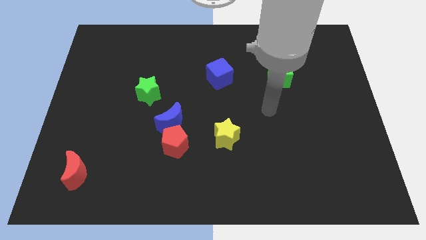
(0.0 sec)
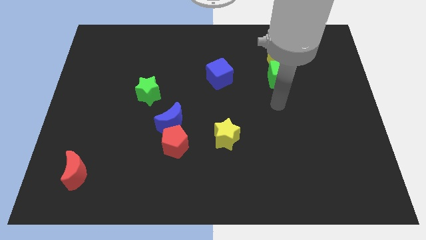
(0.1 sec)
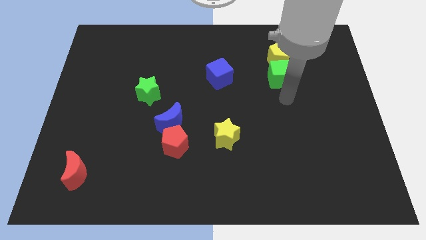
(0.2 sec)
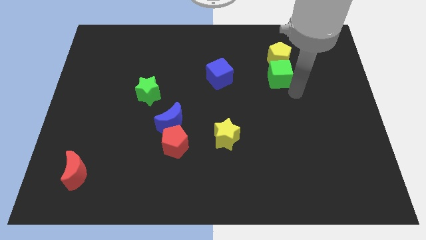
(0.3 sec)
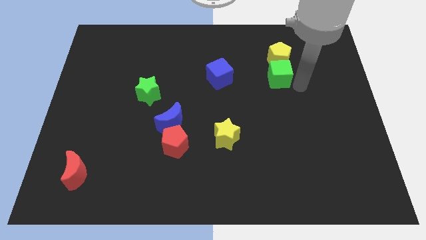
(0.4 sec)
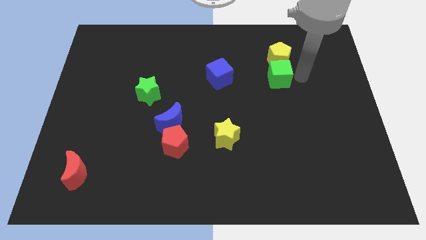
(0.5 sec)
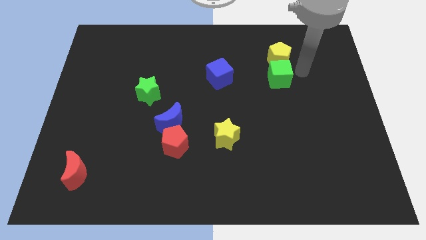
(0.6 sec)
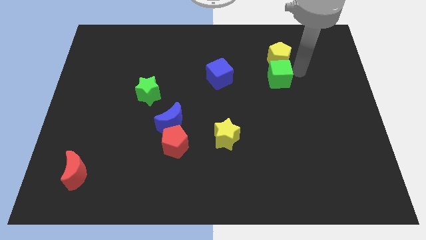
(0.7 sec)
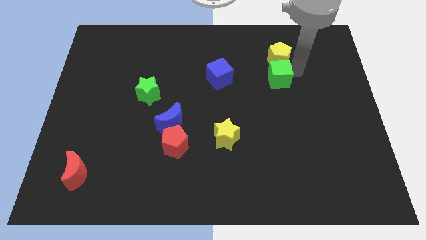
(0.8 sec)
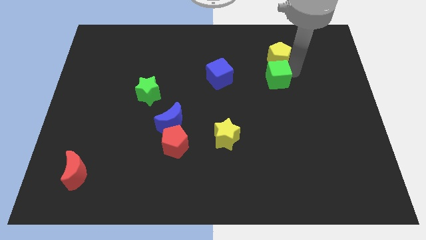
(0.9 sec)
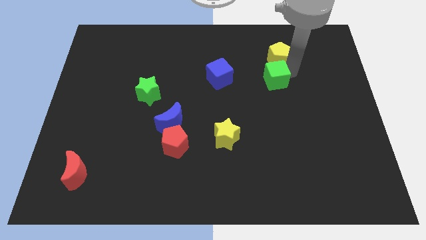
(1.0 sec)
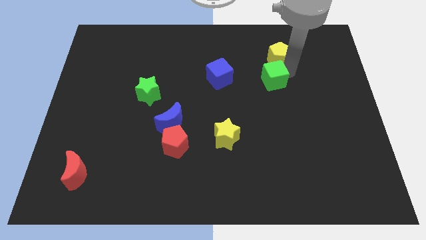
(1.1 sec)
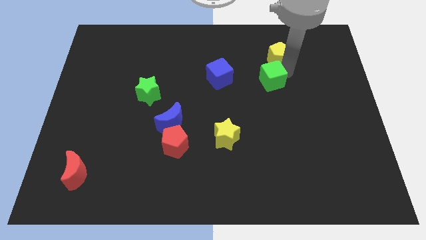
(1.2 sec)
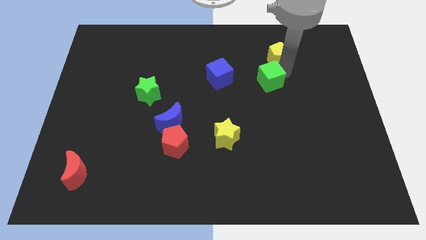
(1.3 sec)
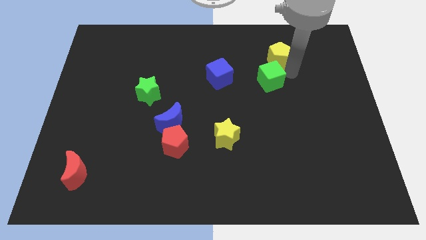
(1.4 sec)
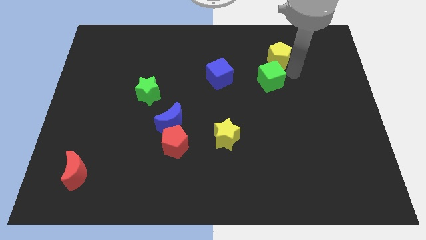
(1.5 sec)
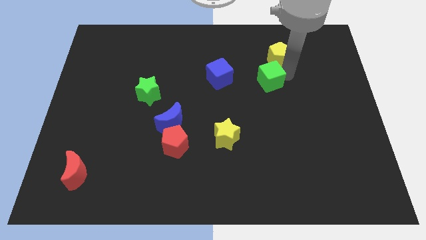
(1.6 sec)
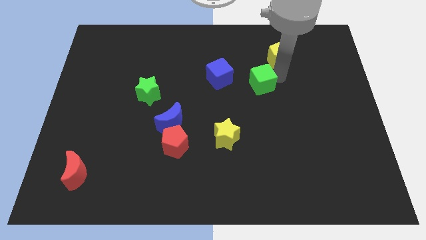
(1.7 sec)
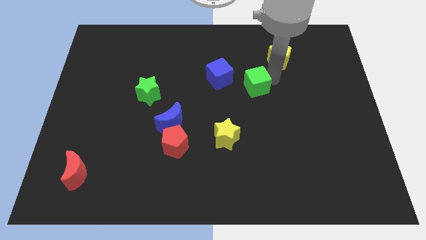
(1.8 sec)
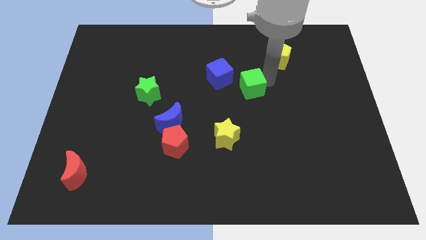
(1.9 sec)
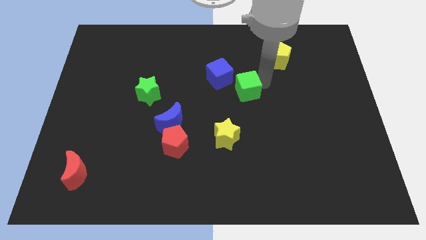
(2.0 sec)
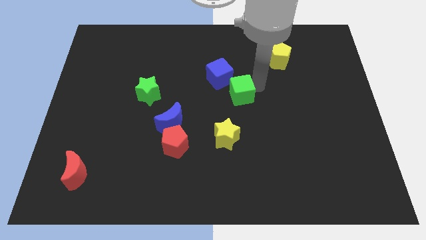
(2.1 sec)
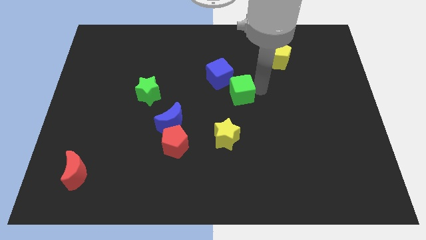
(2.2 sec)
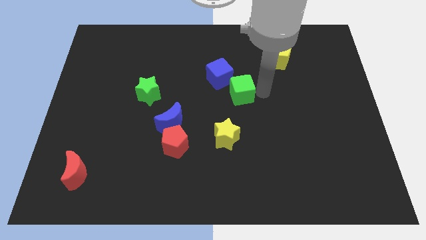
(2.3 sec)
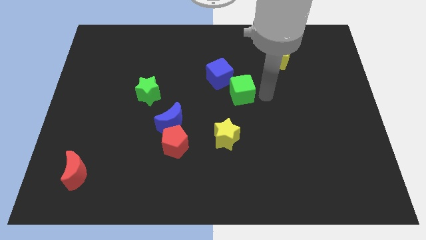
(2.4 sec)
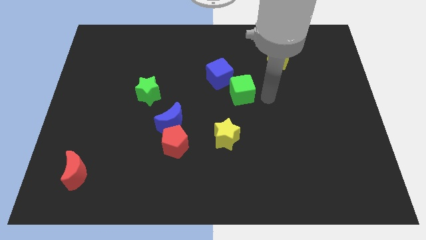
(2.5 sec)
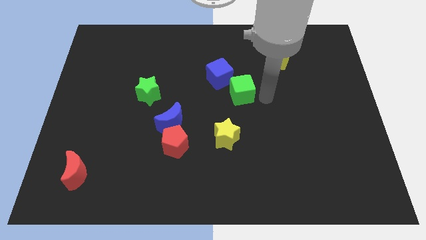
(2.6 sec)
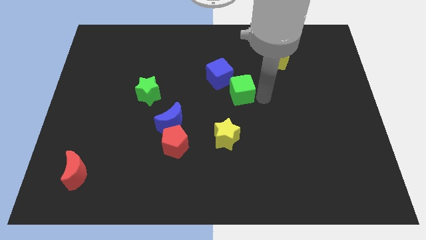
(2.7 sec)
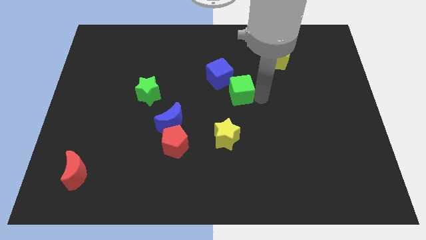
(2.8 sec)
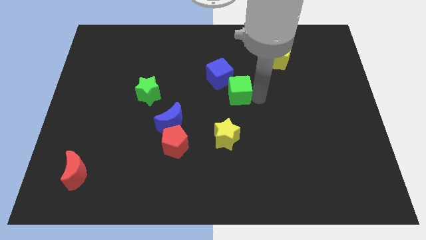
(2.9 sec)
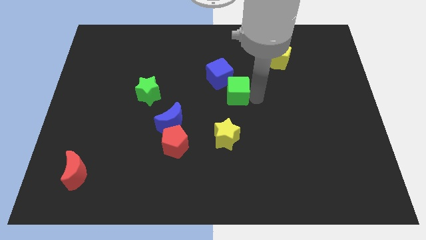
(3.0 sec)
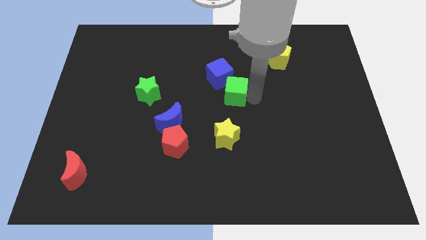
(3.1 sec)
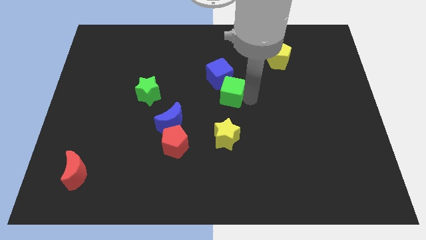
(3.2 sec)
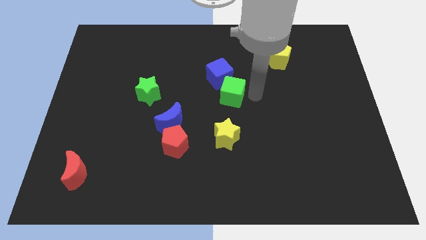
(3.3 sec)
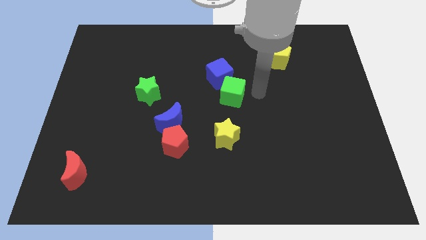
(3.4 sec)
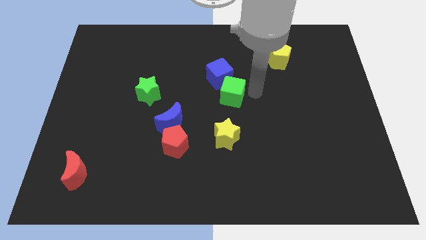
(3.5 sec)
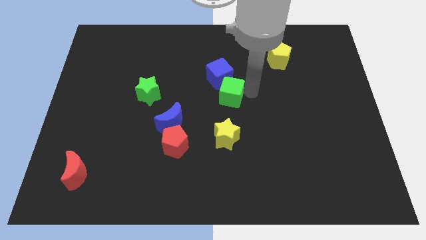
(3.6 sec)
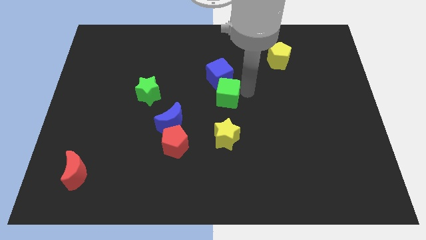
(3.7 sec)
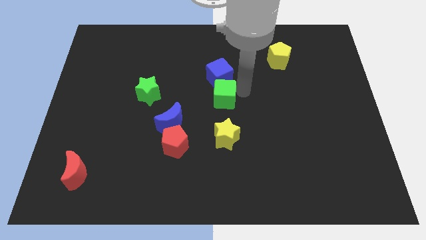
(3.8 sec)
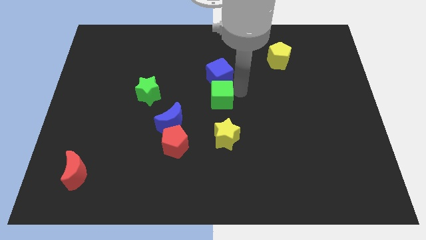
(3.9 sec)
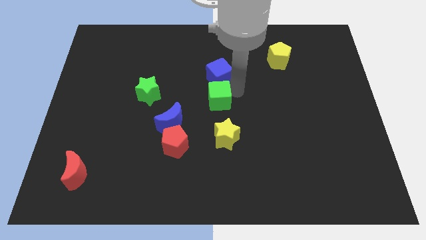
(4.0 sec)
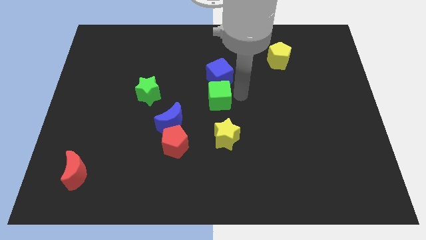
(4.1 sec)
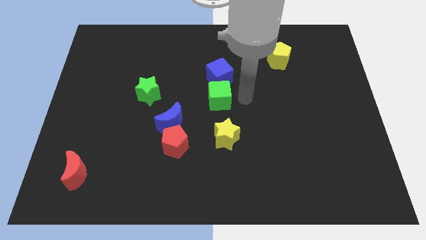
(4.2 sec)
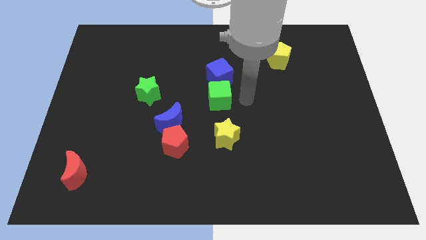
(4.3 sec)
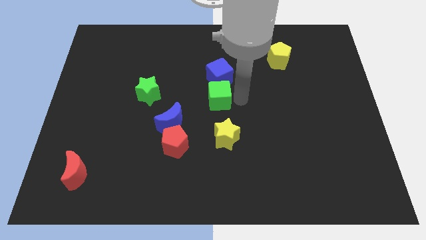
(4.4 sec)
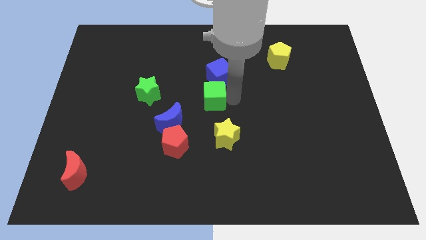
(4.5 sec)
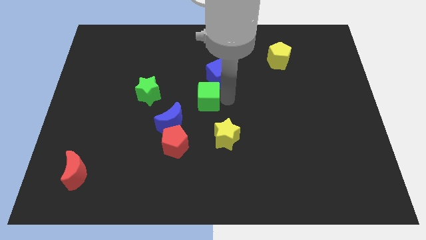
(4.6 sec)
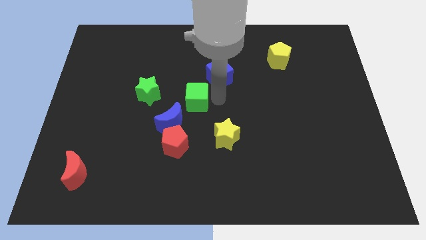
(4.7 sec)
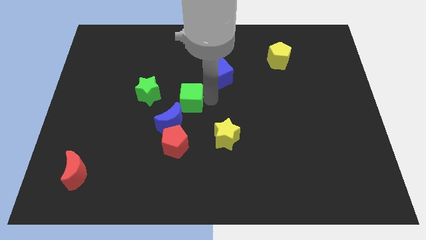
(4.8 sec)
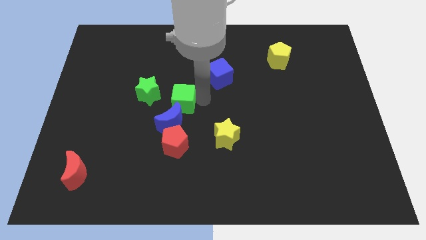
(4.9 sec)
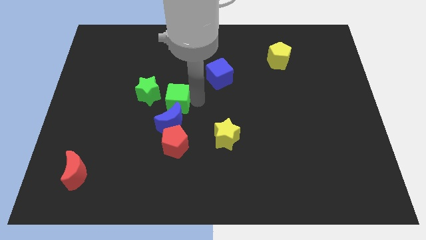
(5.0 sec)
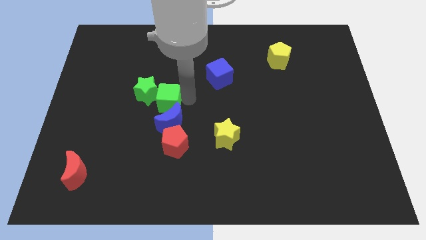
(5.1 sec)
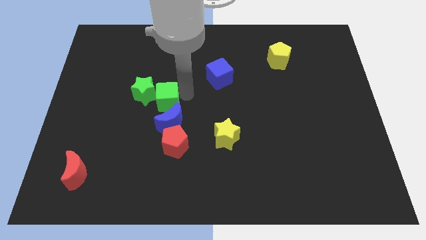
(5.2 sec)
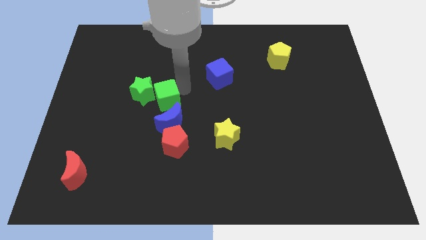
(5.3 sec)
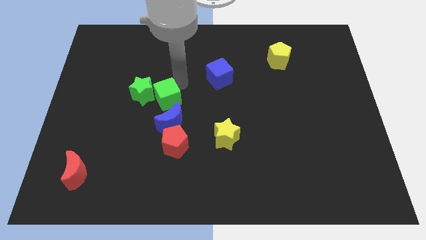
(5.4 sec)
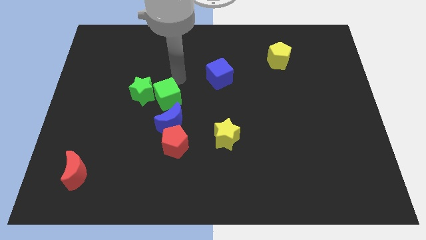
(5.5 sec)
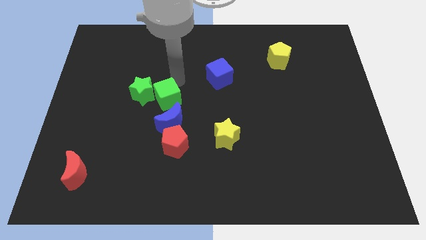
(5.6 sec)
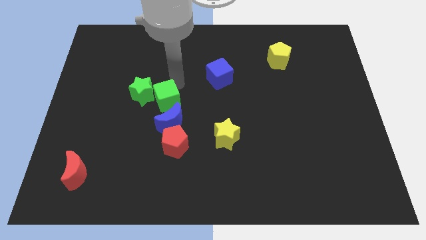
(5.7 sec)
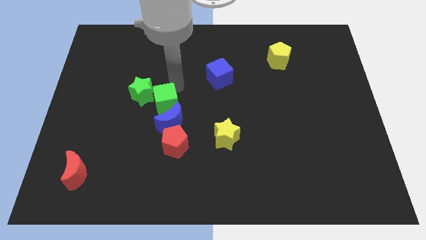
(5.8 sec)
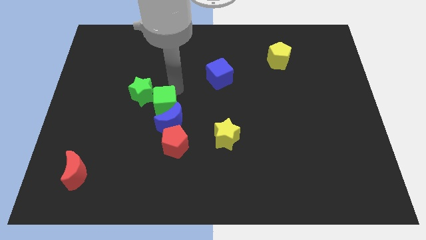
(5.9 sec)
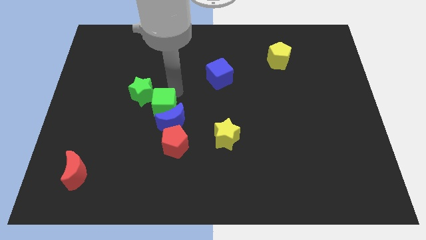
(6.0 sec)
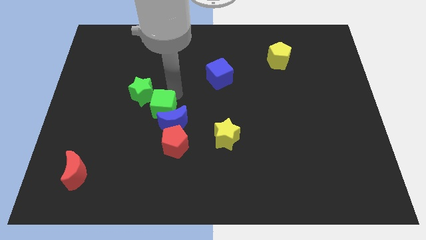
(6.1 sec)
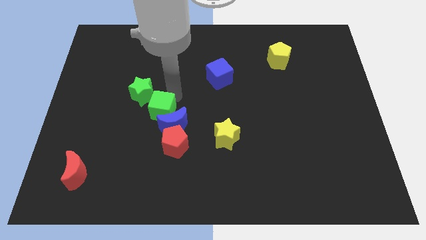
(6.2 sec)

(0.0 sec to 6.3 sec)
put the green cube diagonally up and to the left of the red pentagon

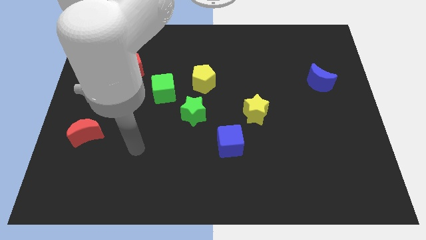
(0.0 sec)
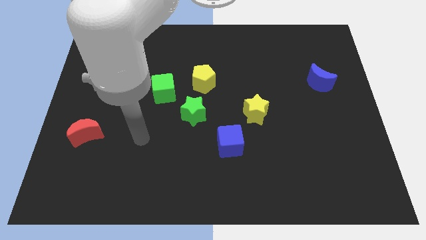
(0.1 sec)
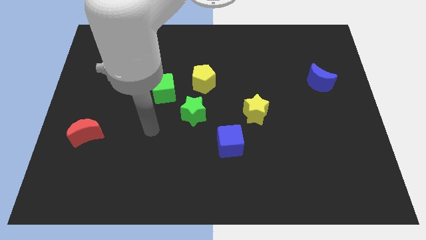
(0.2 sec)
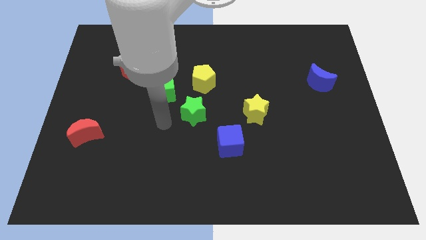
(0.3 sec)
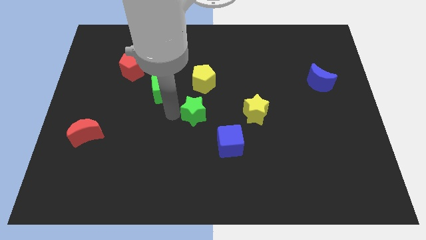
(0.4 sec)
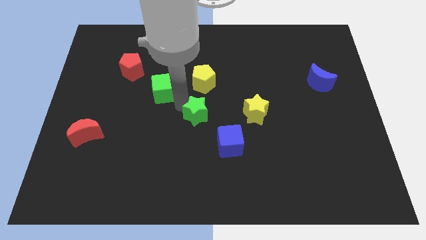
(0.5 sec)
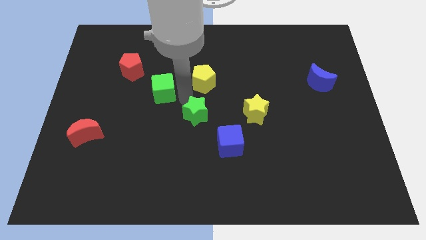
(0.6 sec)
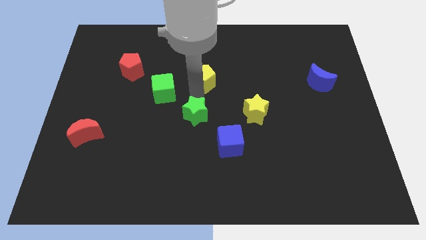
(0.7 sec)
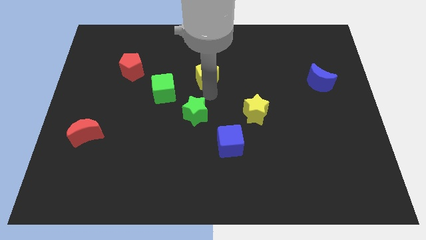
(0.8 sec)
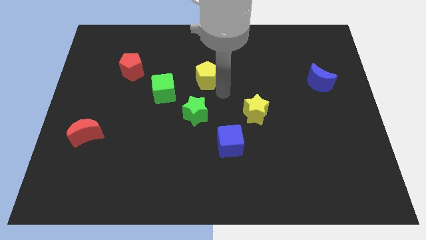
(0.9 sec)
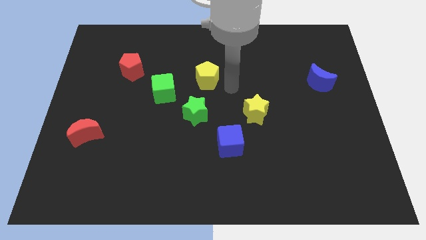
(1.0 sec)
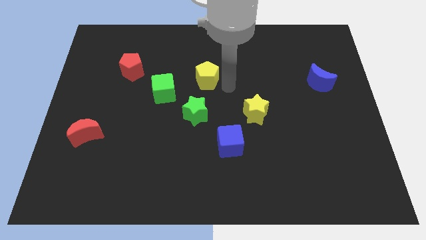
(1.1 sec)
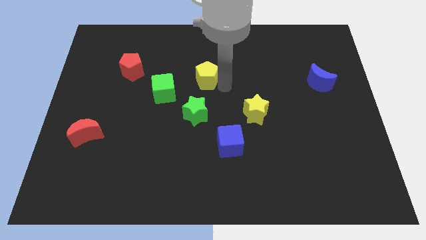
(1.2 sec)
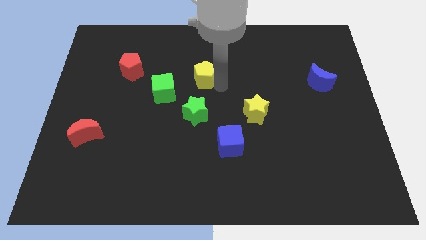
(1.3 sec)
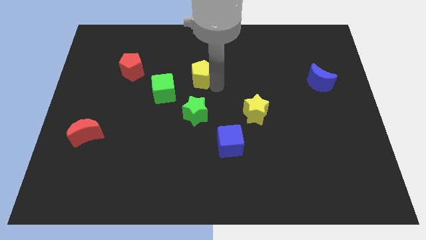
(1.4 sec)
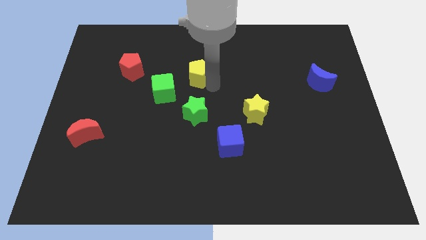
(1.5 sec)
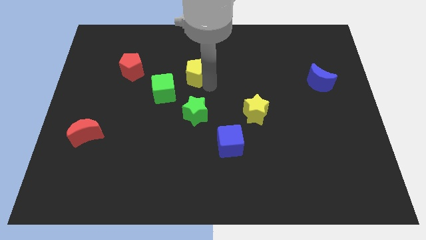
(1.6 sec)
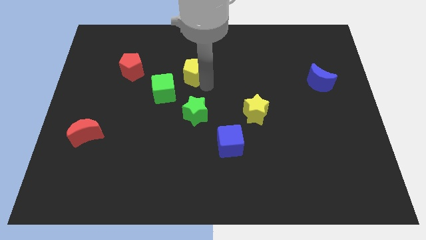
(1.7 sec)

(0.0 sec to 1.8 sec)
put the yellow pentagon right of the red pentagon
